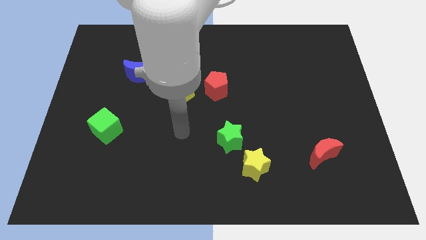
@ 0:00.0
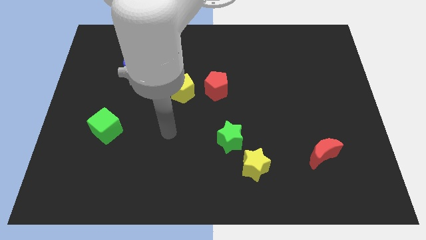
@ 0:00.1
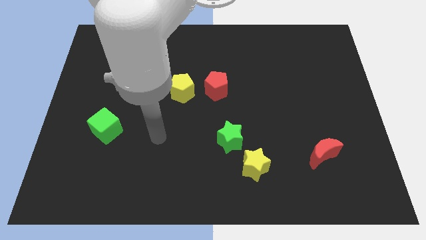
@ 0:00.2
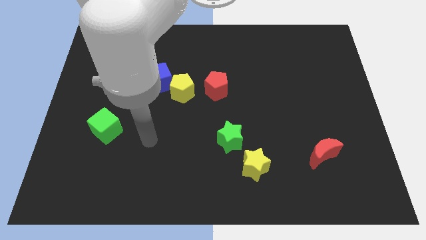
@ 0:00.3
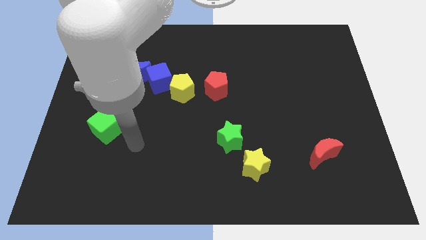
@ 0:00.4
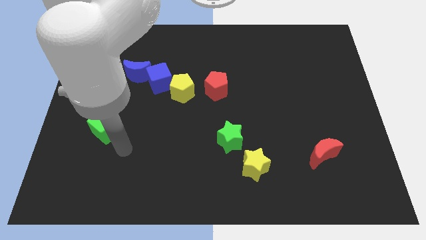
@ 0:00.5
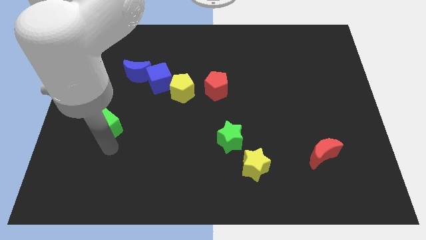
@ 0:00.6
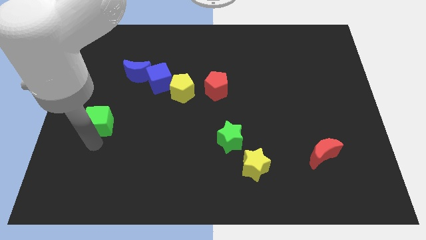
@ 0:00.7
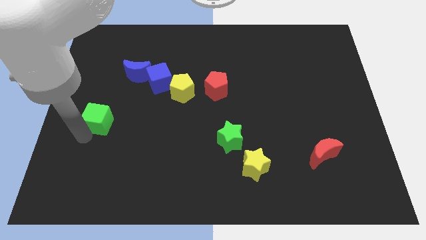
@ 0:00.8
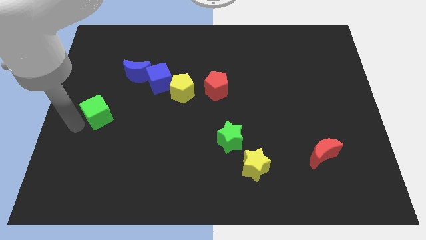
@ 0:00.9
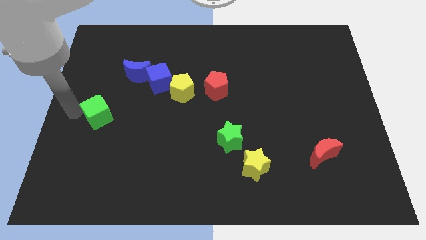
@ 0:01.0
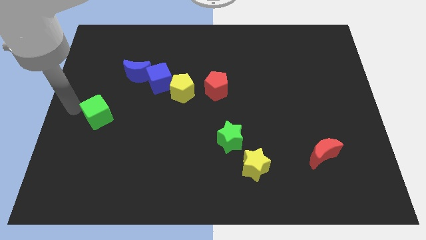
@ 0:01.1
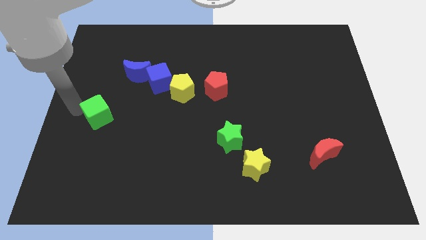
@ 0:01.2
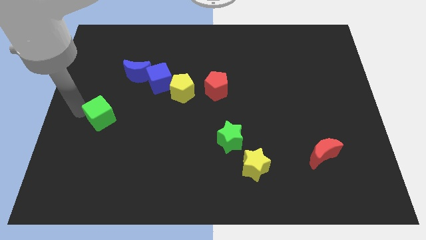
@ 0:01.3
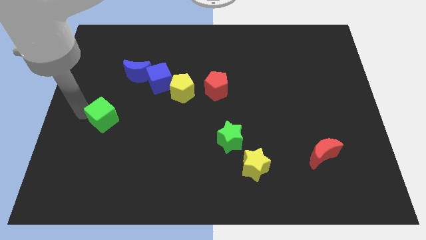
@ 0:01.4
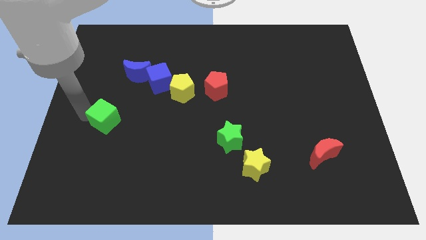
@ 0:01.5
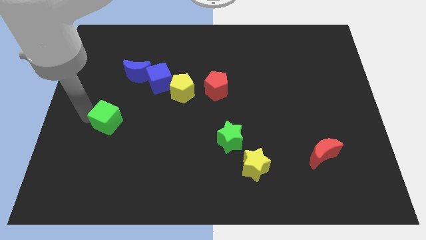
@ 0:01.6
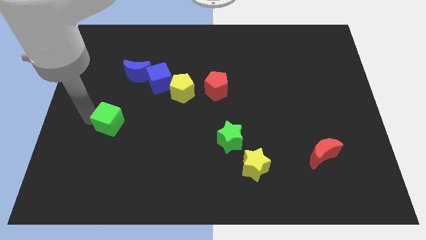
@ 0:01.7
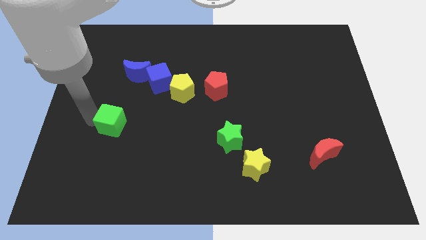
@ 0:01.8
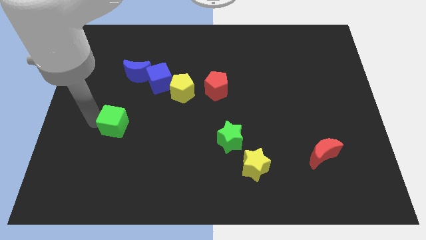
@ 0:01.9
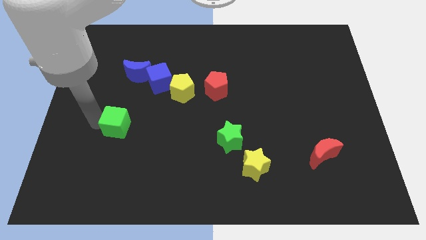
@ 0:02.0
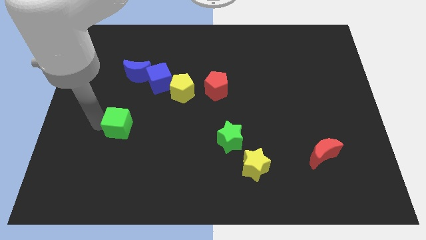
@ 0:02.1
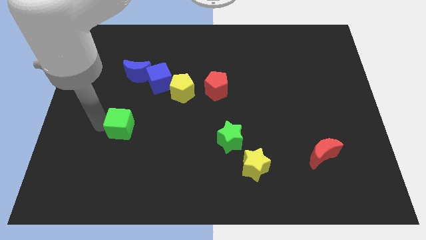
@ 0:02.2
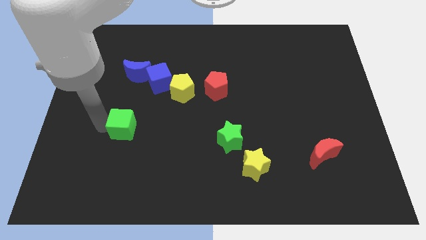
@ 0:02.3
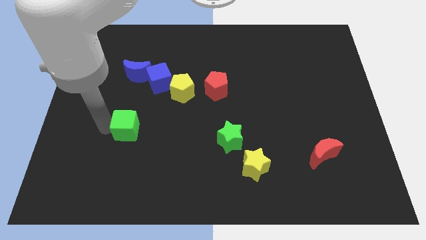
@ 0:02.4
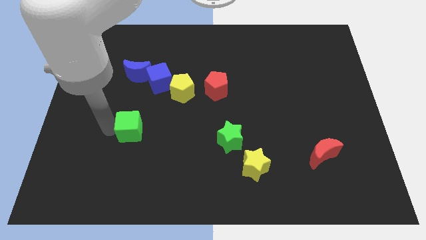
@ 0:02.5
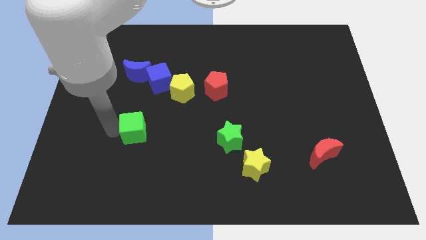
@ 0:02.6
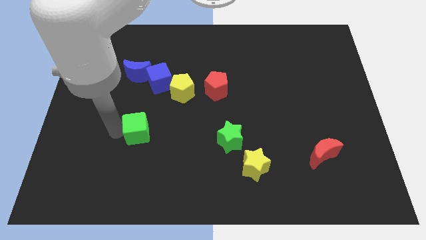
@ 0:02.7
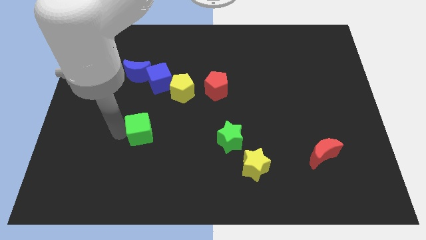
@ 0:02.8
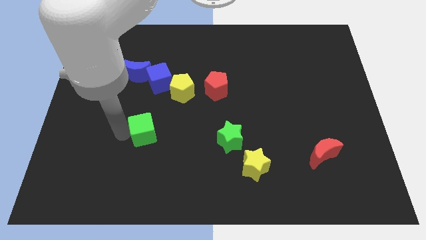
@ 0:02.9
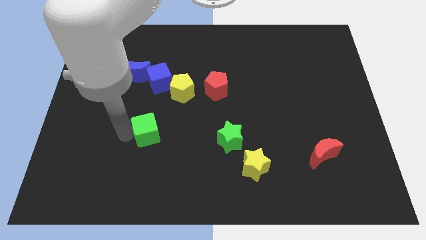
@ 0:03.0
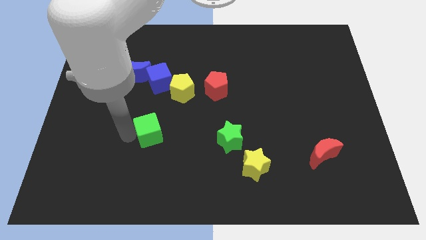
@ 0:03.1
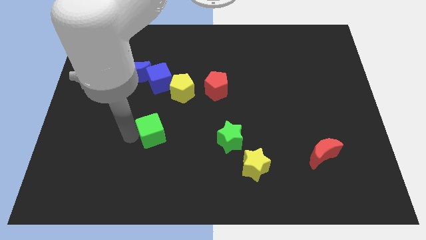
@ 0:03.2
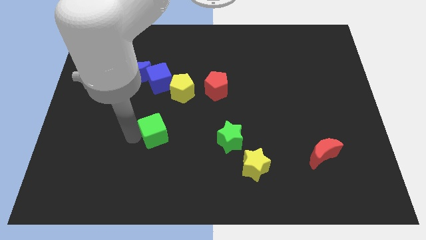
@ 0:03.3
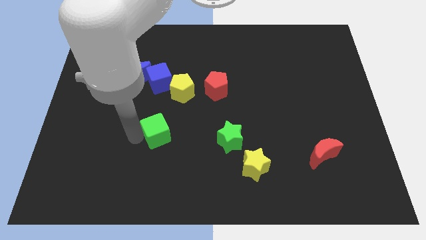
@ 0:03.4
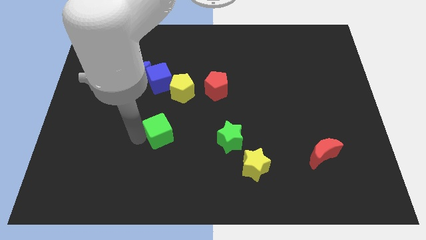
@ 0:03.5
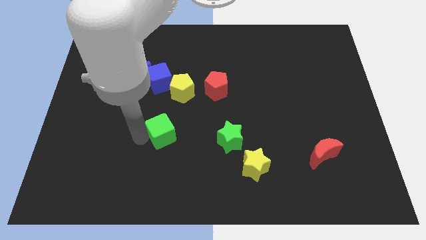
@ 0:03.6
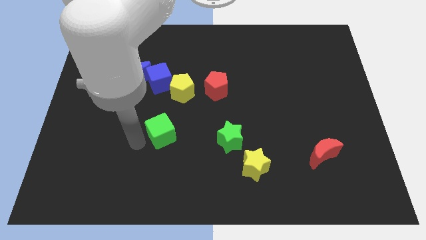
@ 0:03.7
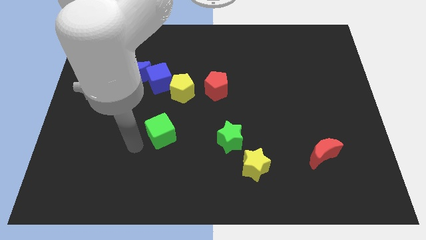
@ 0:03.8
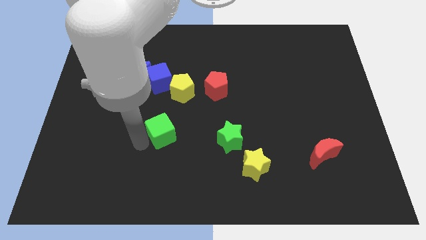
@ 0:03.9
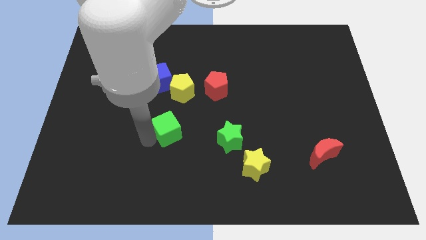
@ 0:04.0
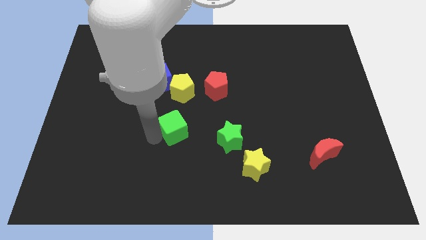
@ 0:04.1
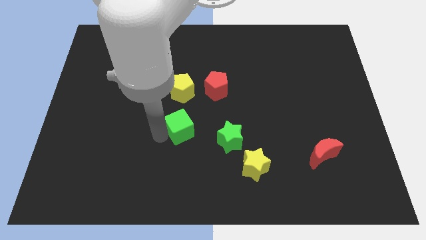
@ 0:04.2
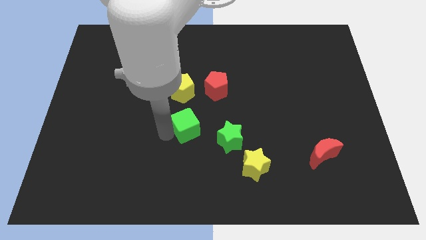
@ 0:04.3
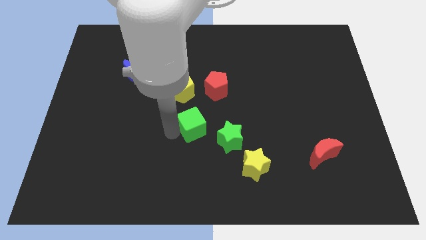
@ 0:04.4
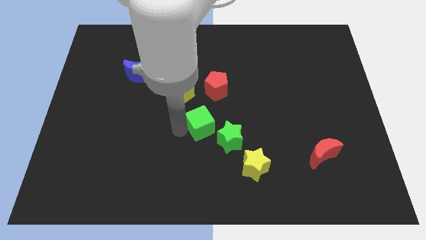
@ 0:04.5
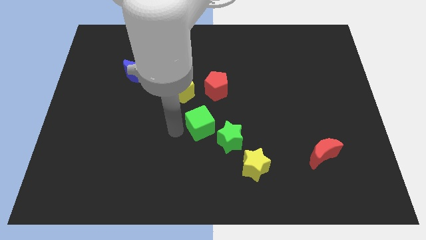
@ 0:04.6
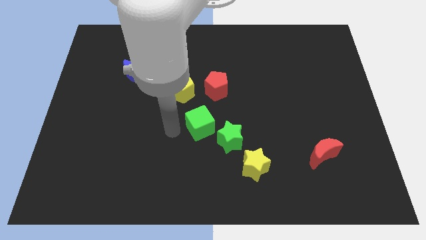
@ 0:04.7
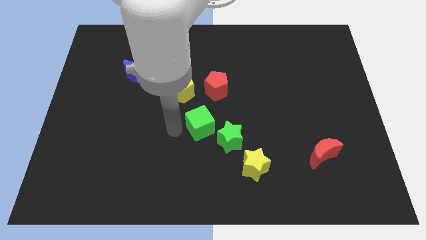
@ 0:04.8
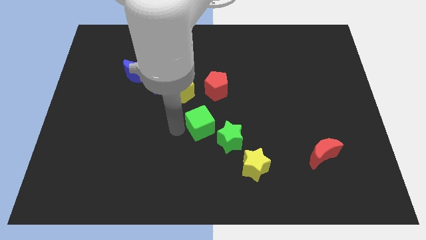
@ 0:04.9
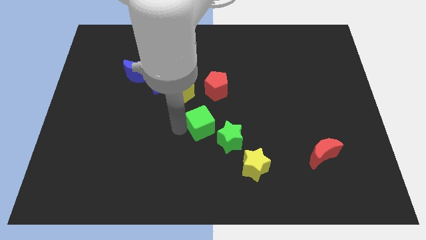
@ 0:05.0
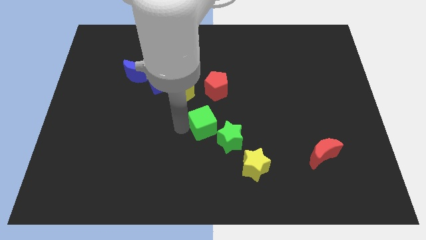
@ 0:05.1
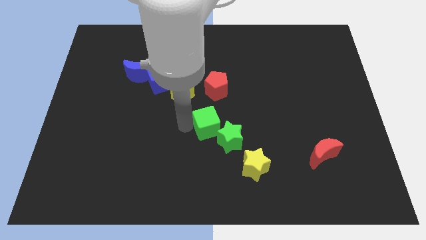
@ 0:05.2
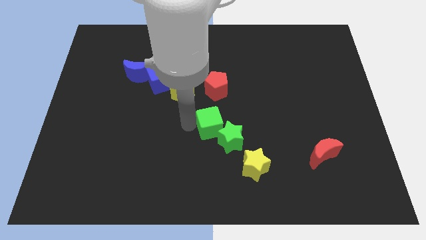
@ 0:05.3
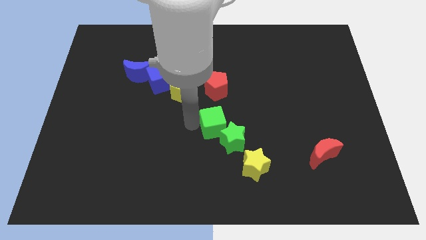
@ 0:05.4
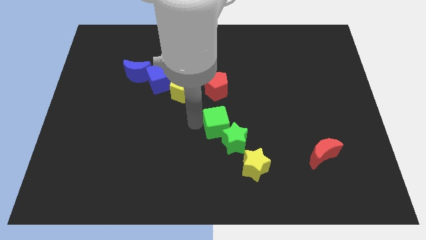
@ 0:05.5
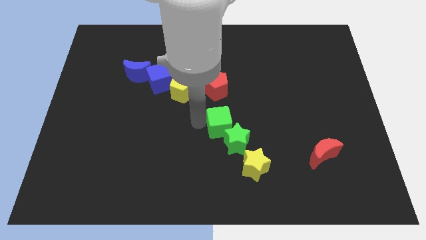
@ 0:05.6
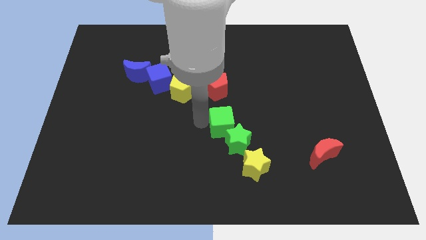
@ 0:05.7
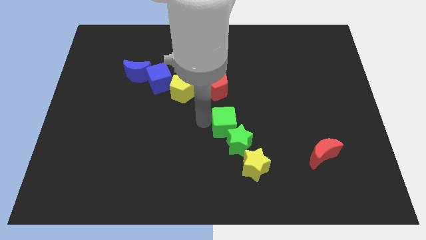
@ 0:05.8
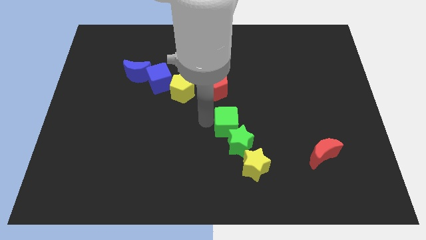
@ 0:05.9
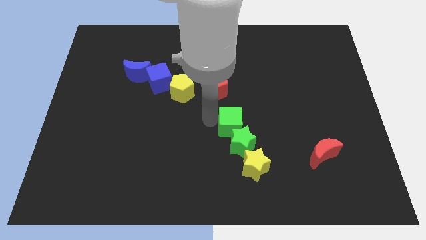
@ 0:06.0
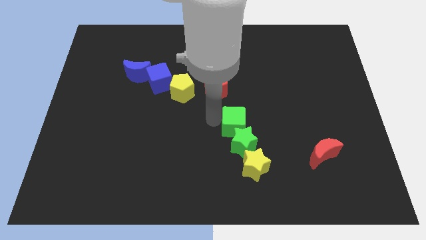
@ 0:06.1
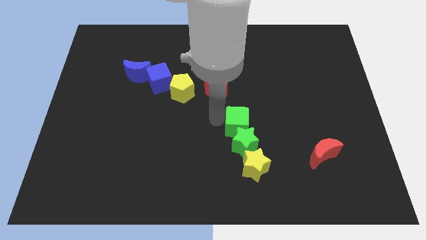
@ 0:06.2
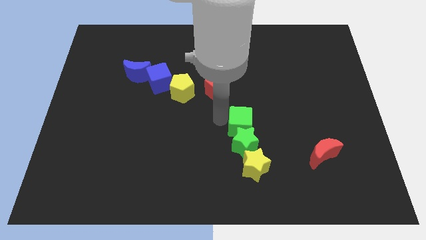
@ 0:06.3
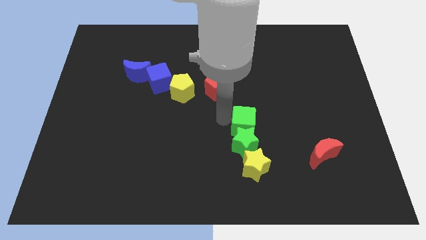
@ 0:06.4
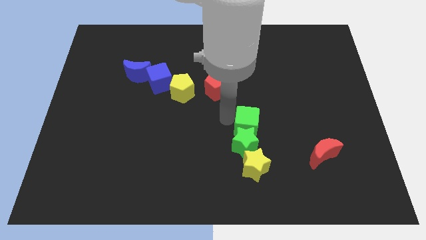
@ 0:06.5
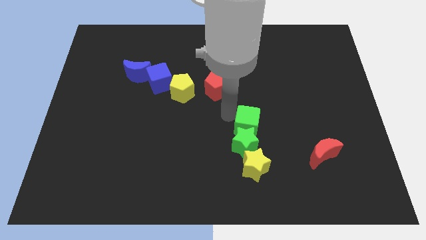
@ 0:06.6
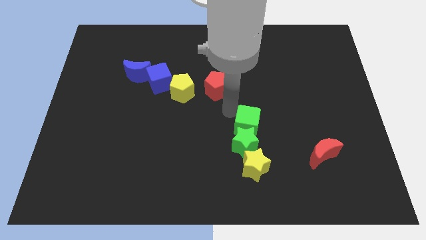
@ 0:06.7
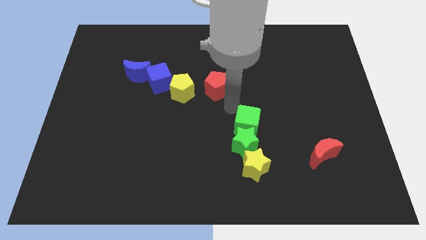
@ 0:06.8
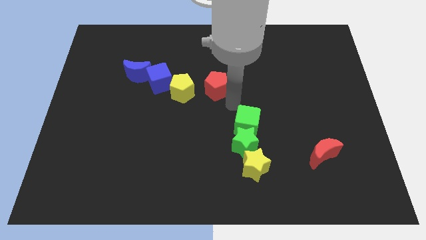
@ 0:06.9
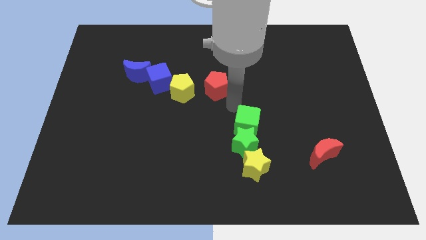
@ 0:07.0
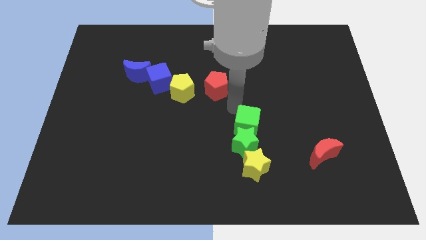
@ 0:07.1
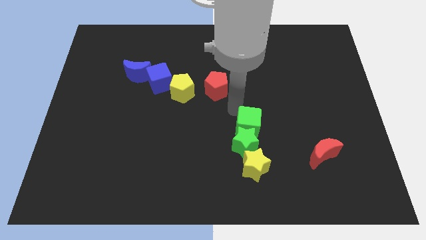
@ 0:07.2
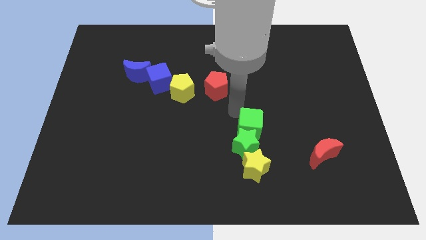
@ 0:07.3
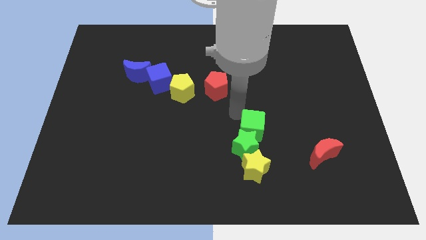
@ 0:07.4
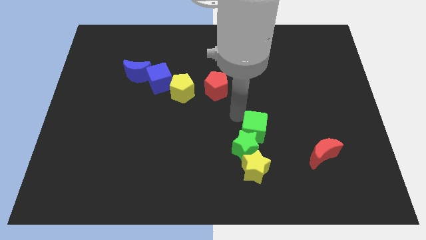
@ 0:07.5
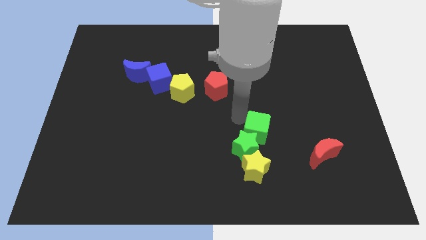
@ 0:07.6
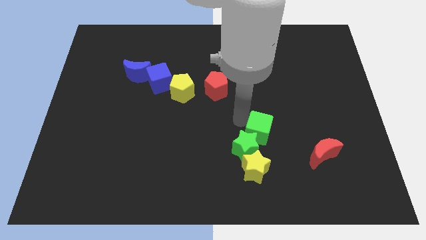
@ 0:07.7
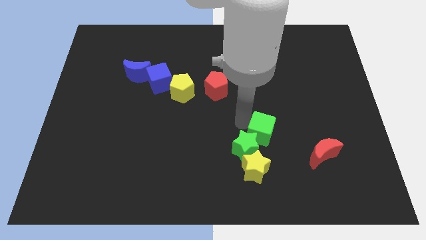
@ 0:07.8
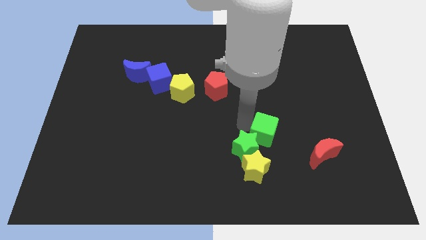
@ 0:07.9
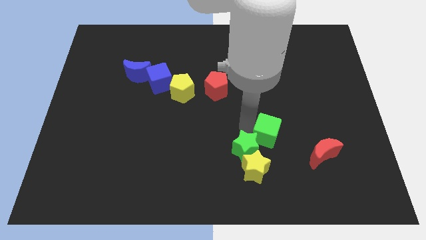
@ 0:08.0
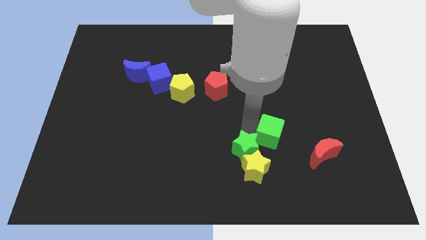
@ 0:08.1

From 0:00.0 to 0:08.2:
put the green cube just left of the red moon
